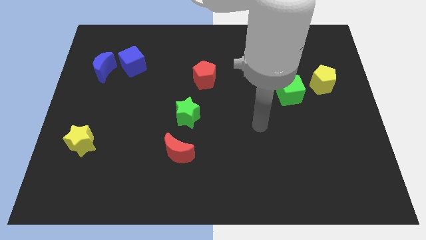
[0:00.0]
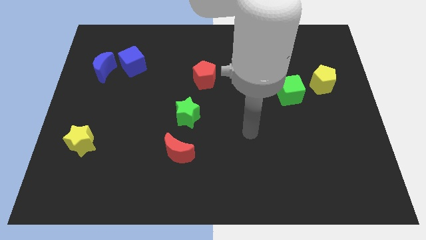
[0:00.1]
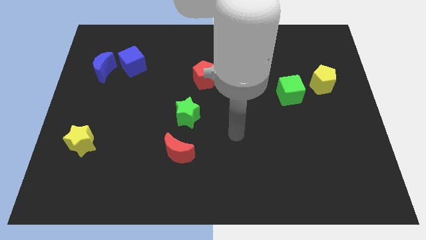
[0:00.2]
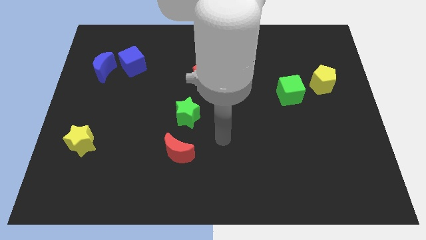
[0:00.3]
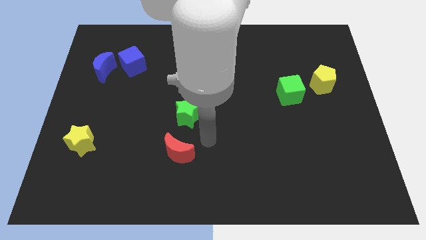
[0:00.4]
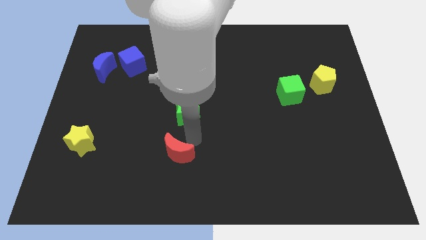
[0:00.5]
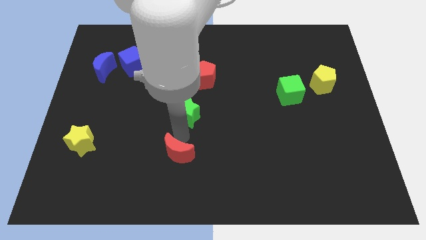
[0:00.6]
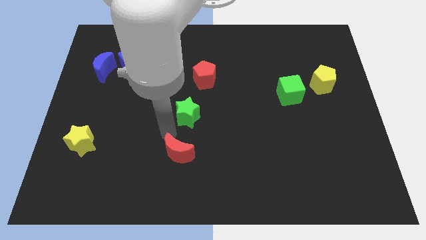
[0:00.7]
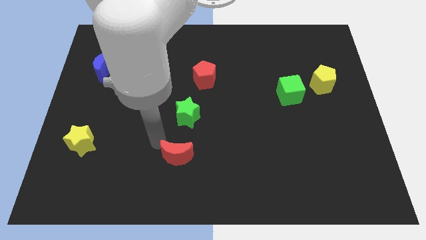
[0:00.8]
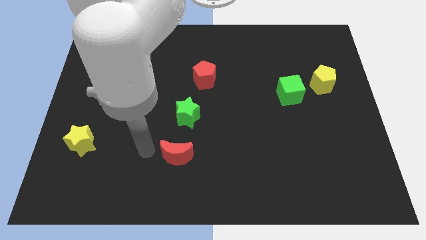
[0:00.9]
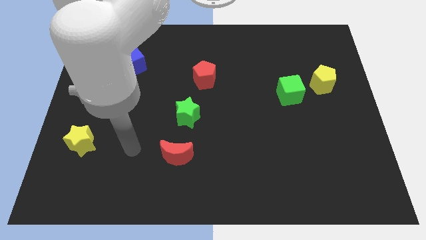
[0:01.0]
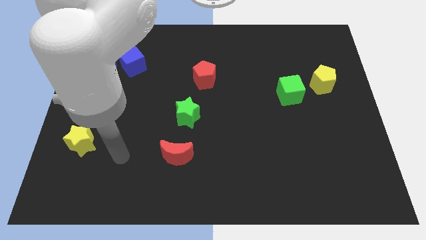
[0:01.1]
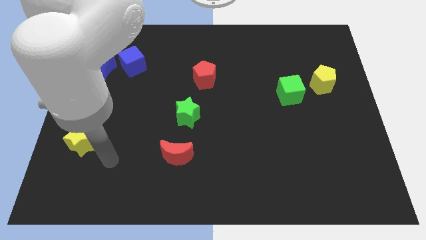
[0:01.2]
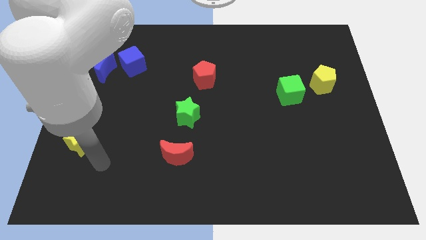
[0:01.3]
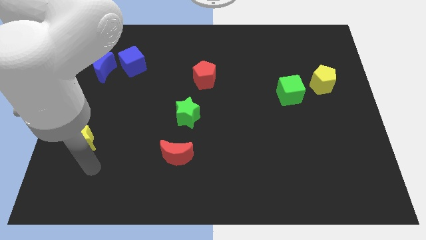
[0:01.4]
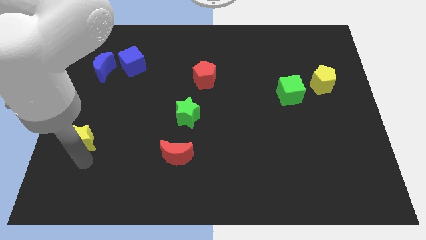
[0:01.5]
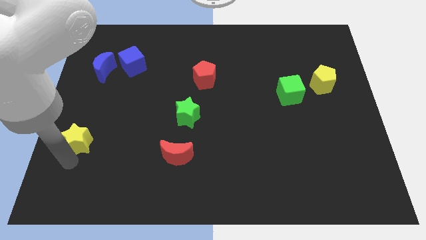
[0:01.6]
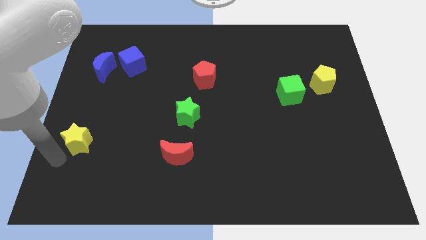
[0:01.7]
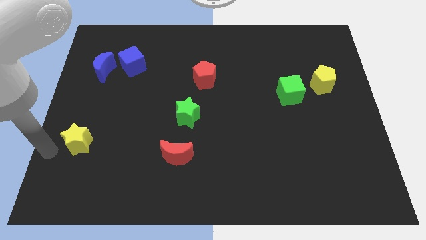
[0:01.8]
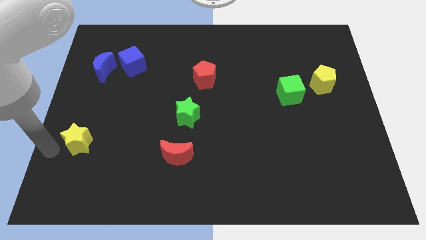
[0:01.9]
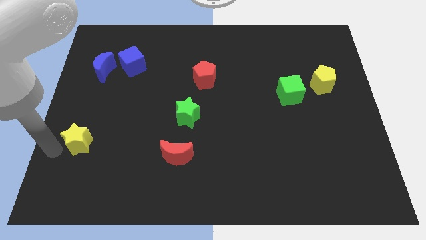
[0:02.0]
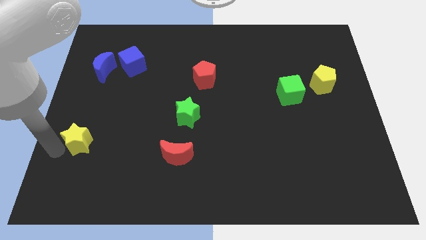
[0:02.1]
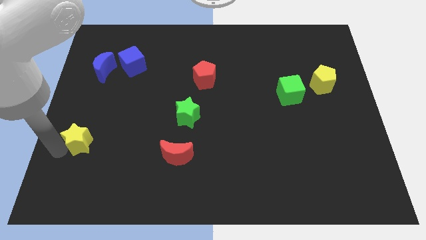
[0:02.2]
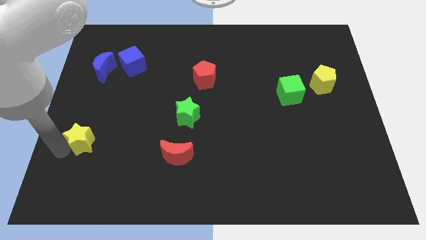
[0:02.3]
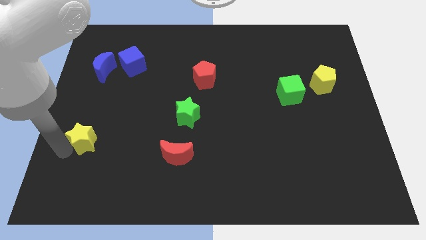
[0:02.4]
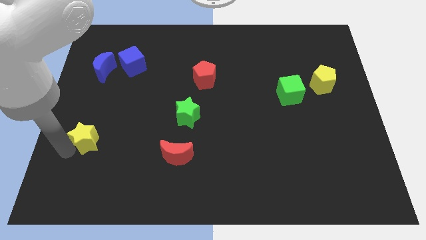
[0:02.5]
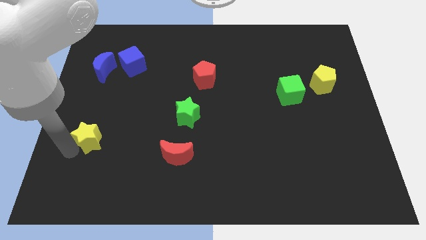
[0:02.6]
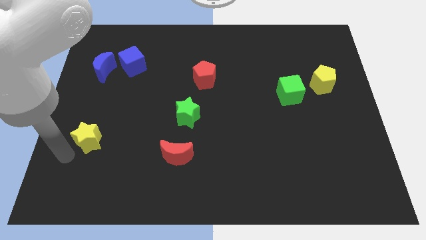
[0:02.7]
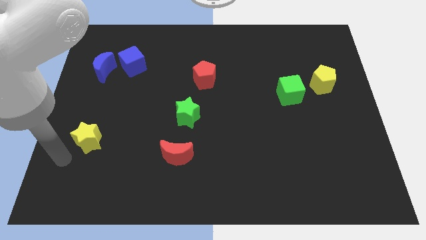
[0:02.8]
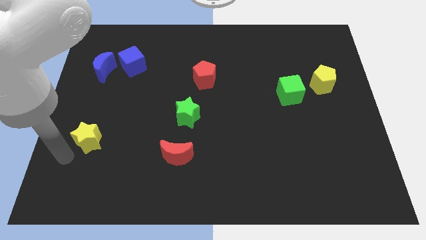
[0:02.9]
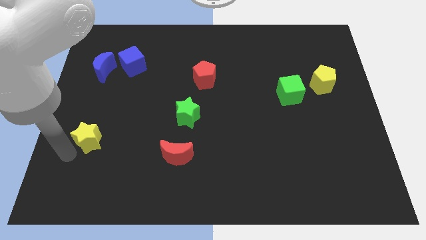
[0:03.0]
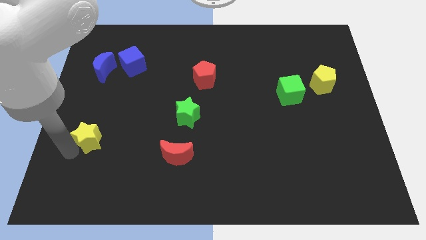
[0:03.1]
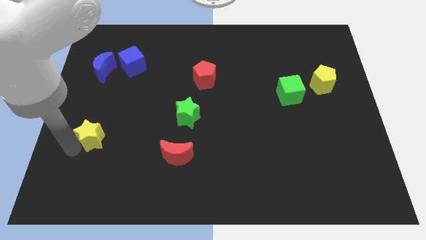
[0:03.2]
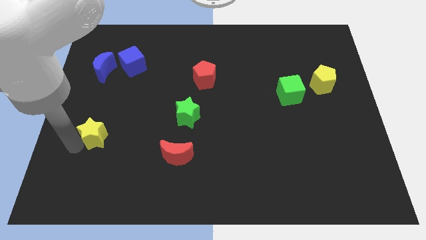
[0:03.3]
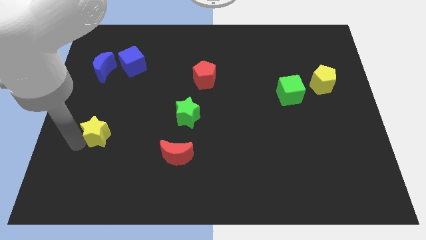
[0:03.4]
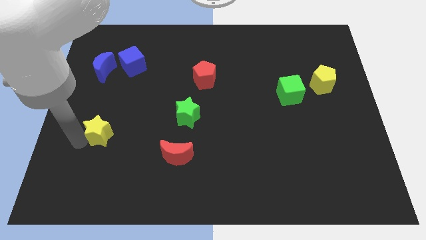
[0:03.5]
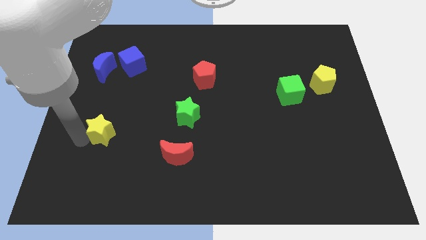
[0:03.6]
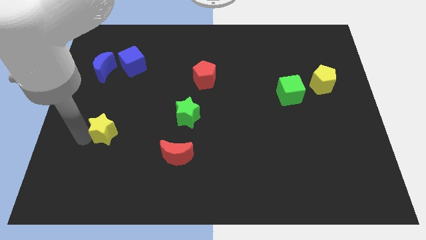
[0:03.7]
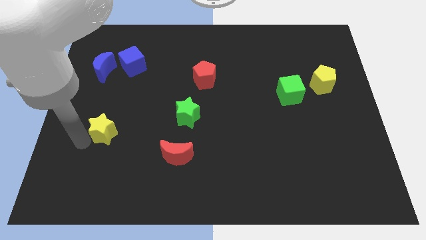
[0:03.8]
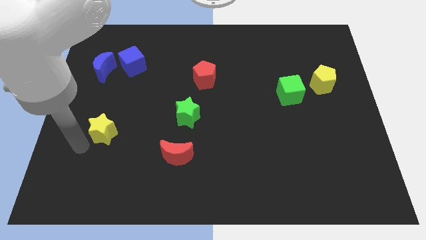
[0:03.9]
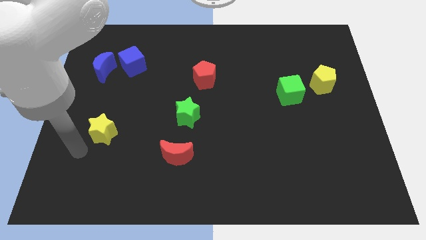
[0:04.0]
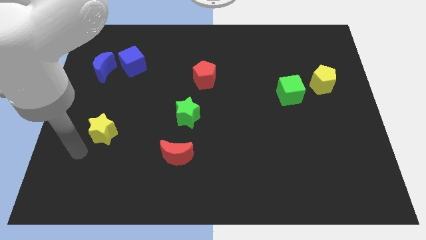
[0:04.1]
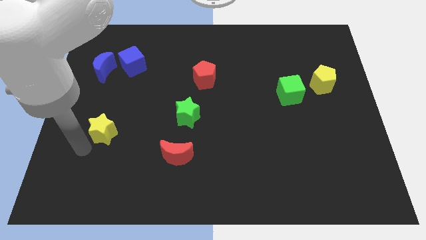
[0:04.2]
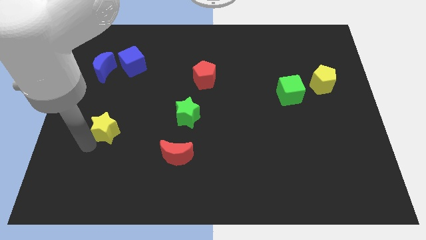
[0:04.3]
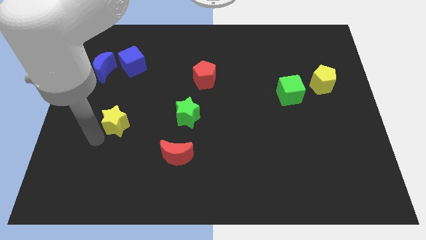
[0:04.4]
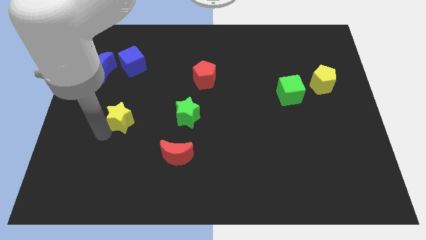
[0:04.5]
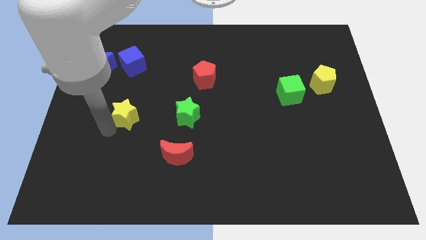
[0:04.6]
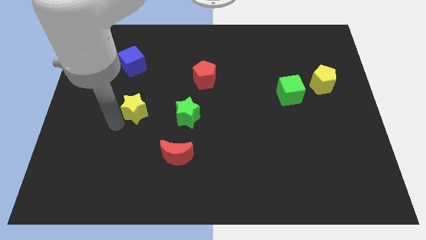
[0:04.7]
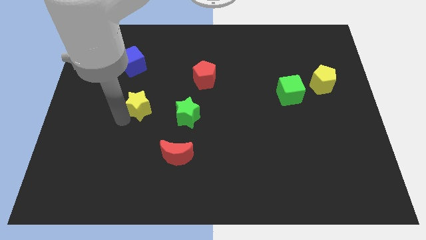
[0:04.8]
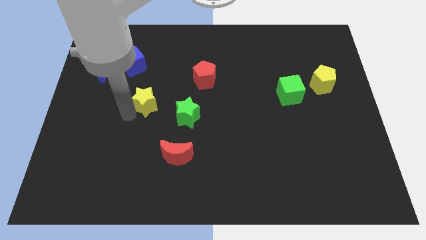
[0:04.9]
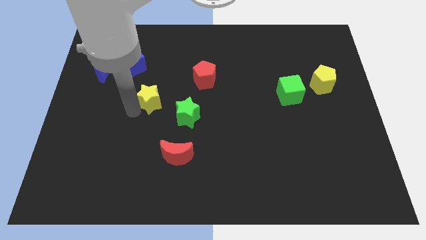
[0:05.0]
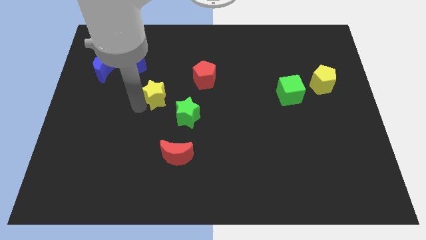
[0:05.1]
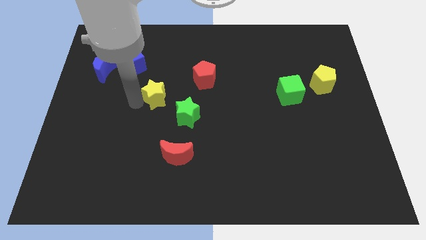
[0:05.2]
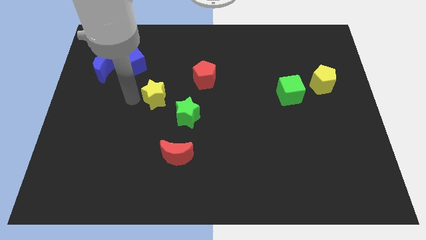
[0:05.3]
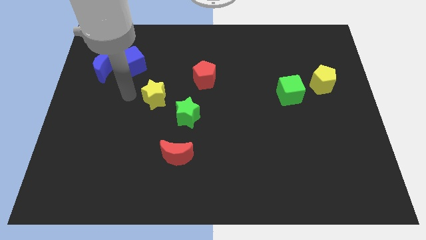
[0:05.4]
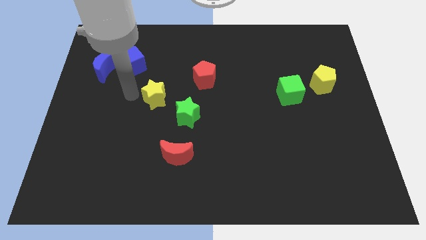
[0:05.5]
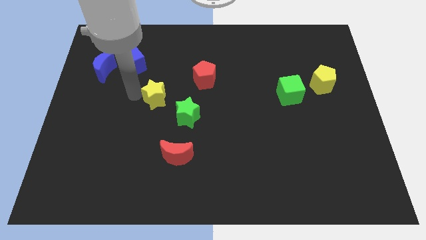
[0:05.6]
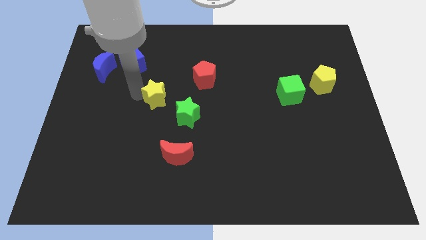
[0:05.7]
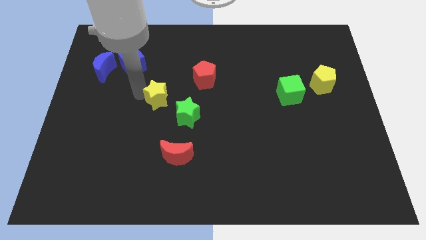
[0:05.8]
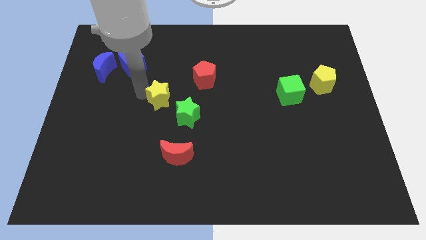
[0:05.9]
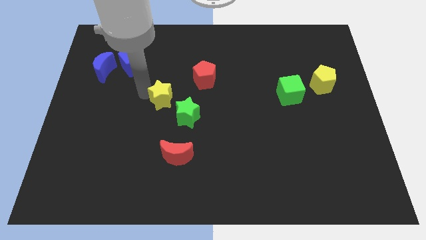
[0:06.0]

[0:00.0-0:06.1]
move the yellow star to the center
